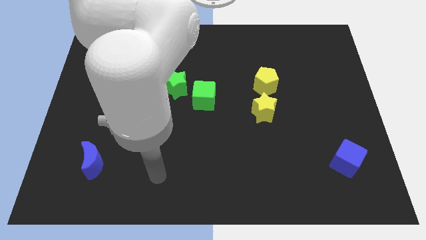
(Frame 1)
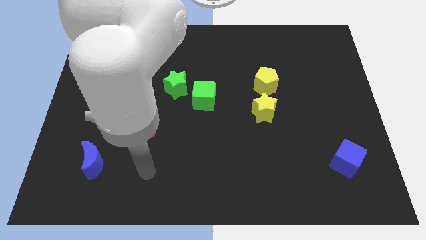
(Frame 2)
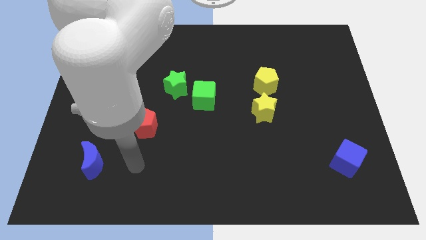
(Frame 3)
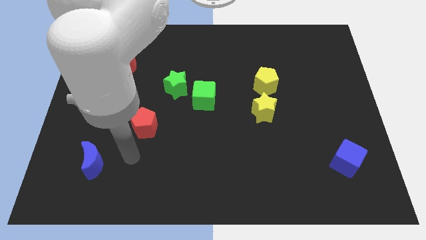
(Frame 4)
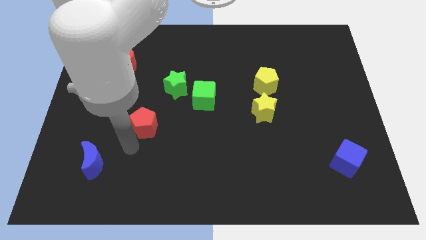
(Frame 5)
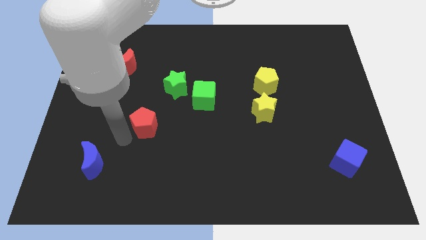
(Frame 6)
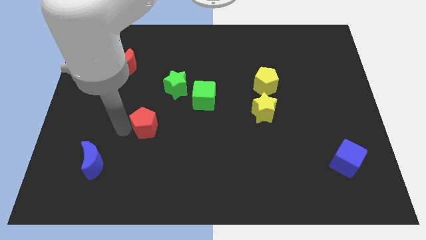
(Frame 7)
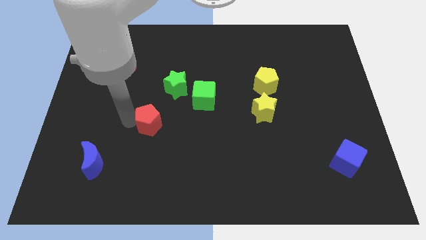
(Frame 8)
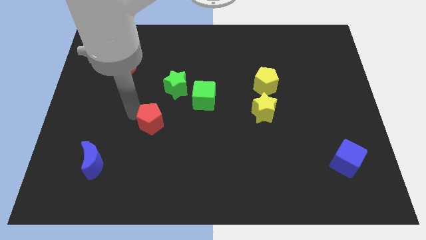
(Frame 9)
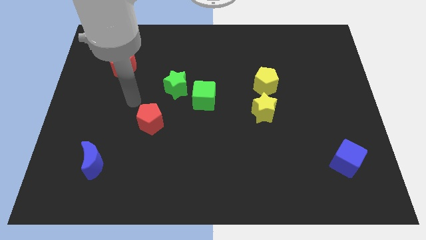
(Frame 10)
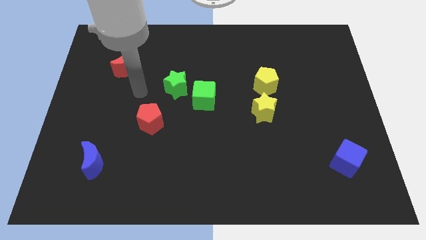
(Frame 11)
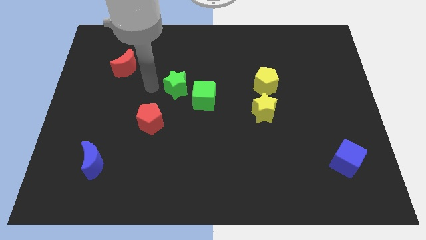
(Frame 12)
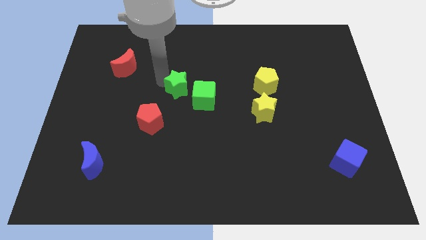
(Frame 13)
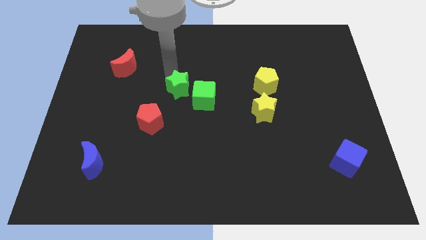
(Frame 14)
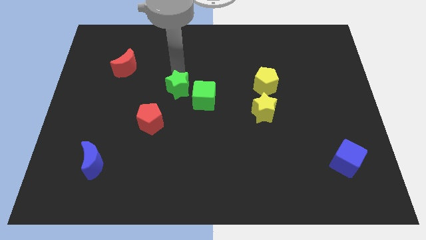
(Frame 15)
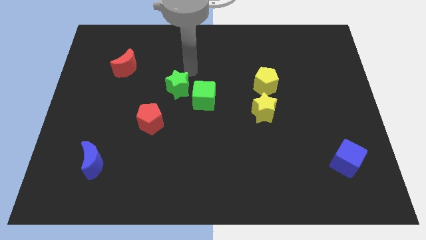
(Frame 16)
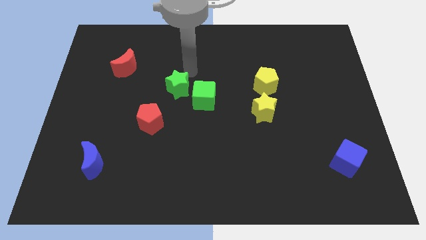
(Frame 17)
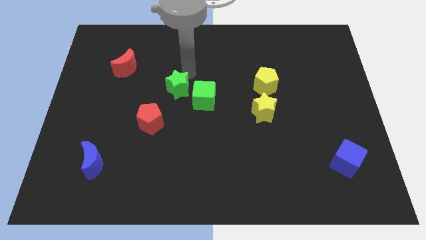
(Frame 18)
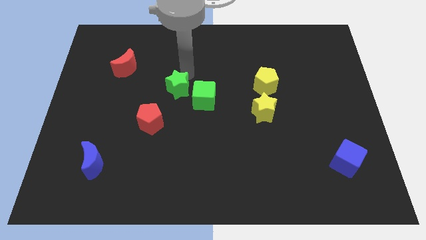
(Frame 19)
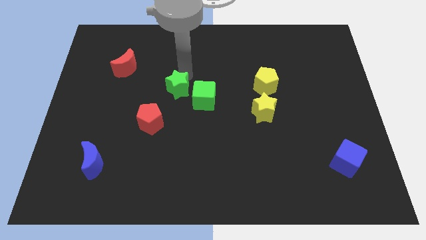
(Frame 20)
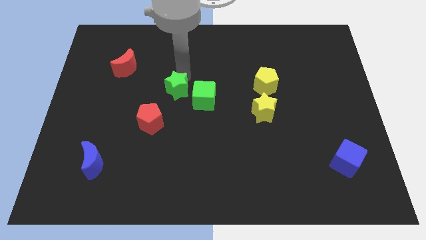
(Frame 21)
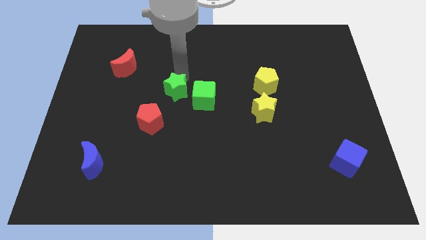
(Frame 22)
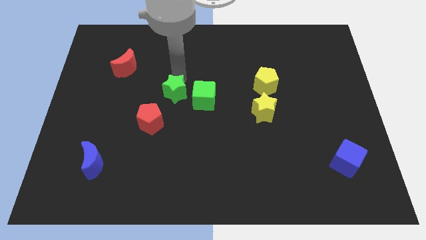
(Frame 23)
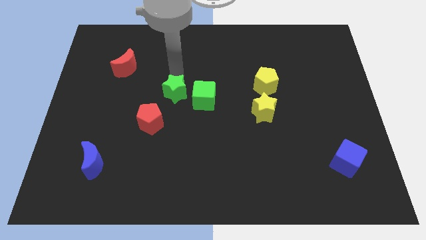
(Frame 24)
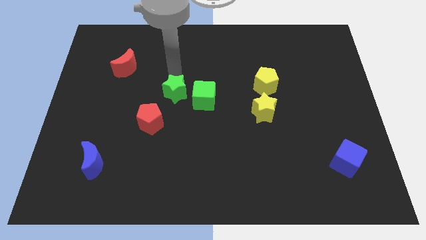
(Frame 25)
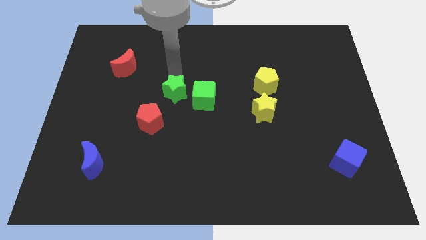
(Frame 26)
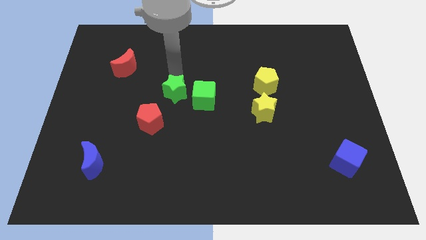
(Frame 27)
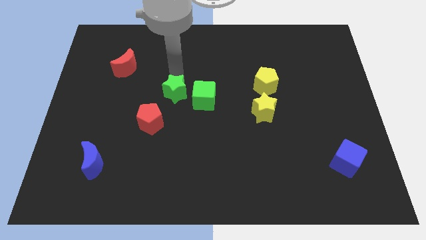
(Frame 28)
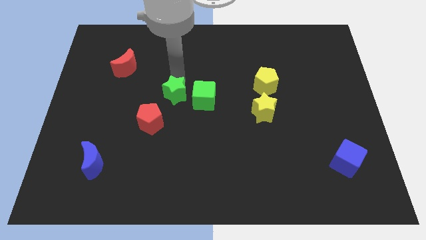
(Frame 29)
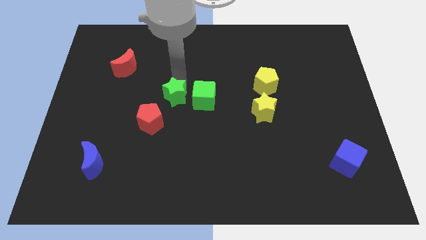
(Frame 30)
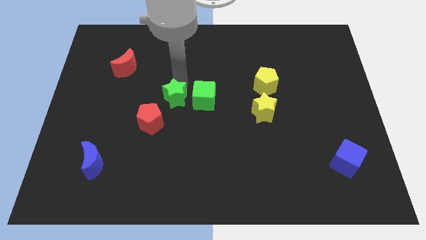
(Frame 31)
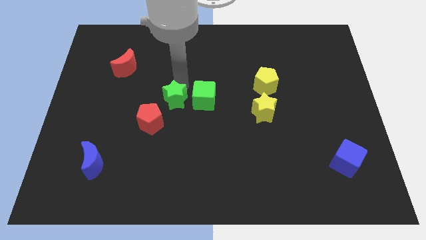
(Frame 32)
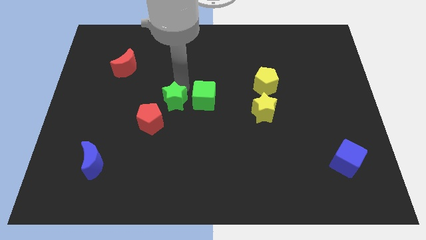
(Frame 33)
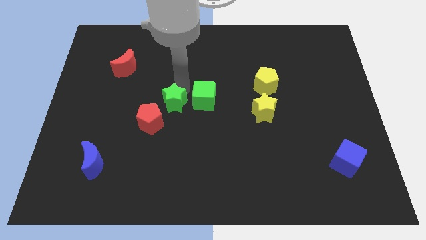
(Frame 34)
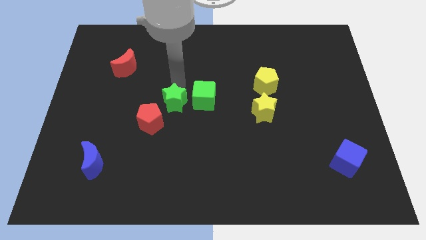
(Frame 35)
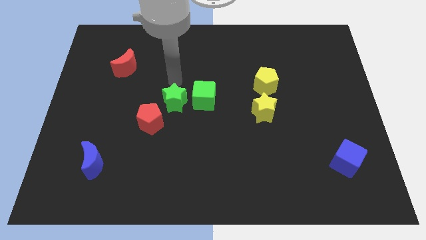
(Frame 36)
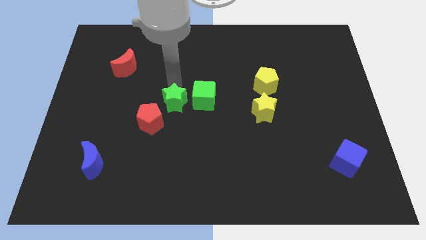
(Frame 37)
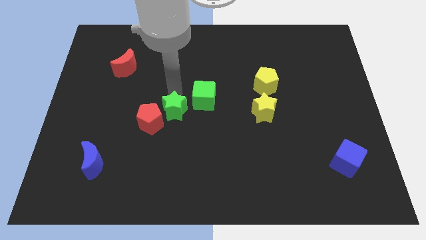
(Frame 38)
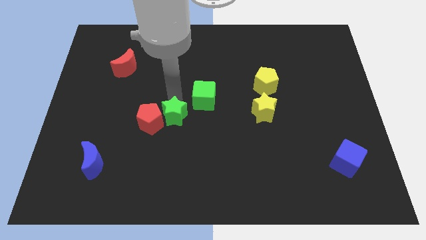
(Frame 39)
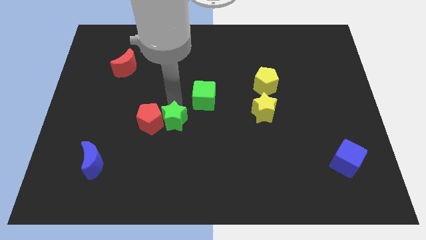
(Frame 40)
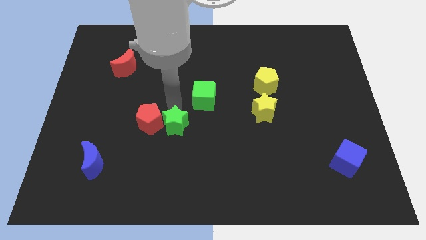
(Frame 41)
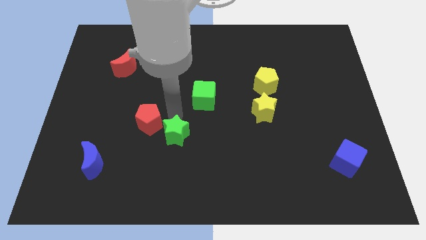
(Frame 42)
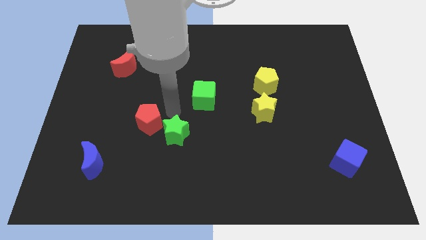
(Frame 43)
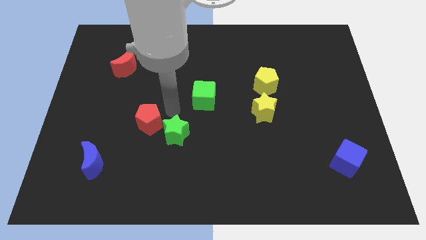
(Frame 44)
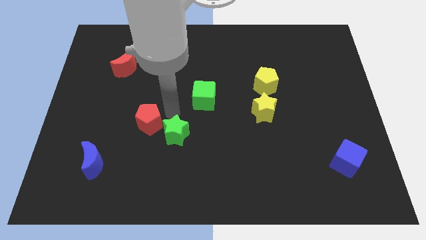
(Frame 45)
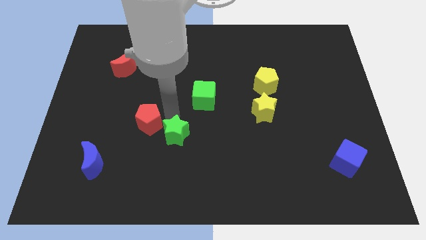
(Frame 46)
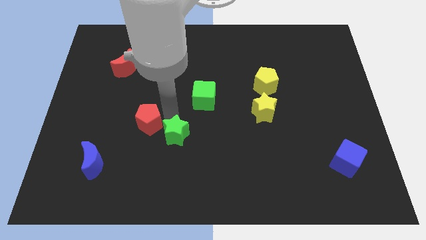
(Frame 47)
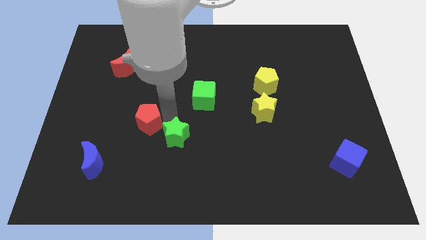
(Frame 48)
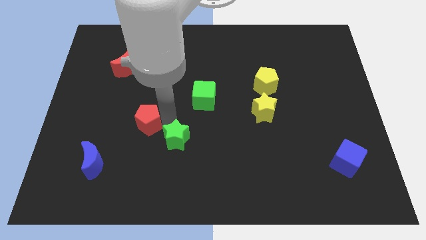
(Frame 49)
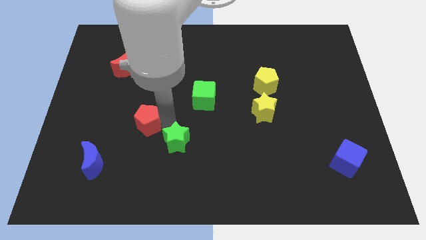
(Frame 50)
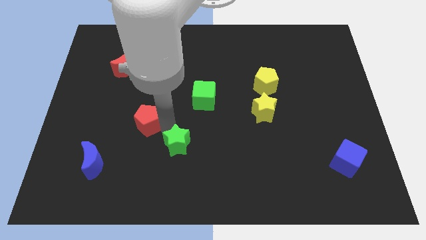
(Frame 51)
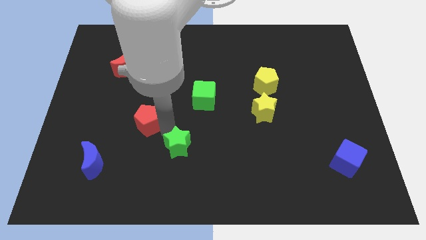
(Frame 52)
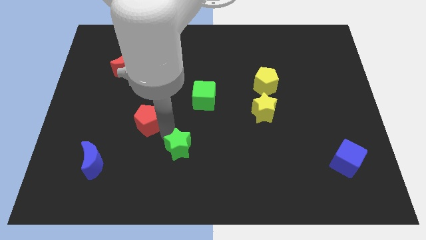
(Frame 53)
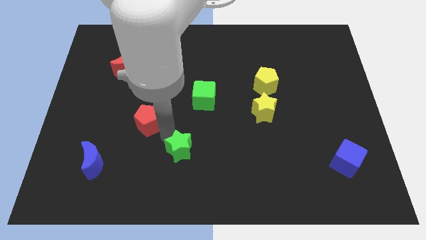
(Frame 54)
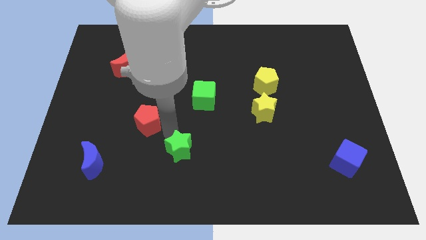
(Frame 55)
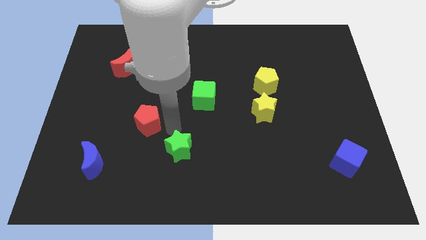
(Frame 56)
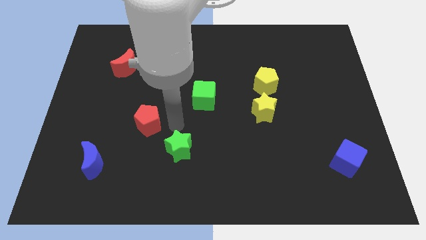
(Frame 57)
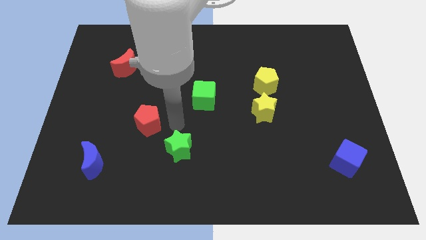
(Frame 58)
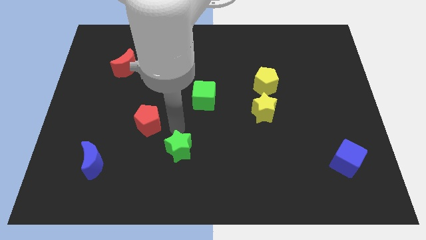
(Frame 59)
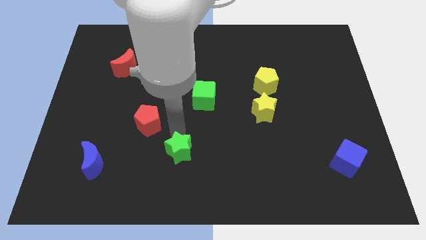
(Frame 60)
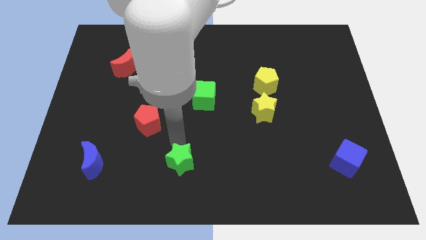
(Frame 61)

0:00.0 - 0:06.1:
slide the green star to the bottom
